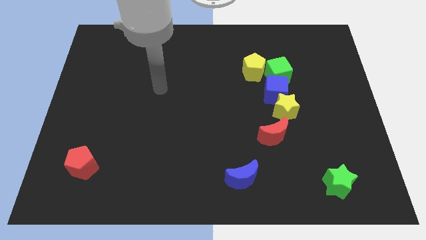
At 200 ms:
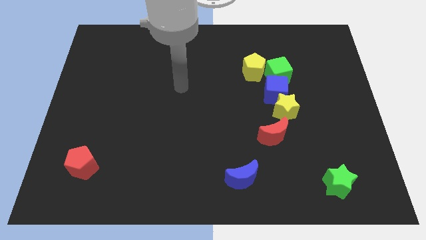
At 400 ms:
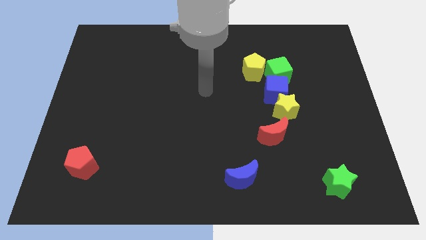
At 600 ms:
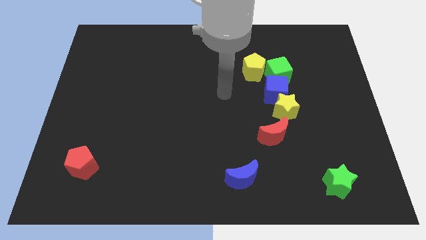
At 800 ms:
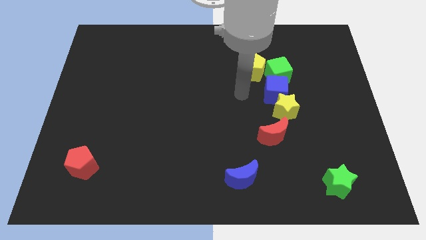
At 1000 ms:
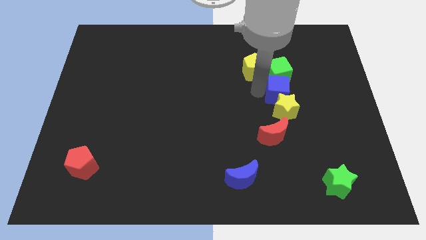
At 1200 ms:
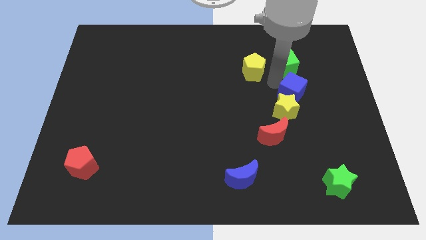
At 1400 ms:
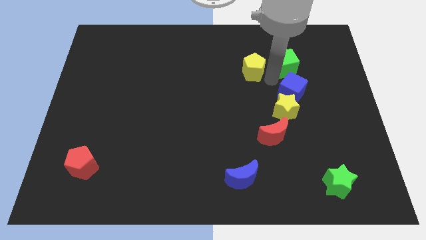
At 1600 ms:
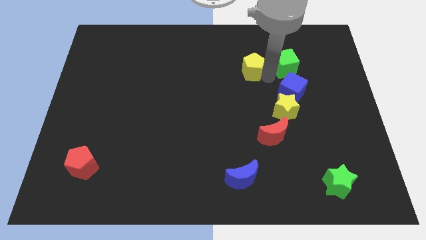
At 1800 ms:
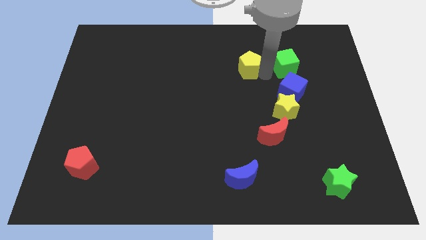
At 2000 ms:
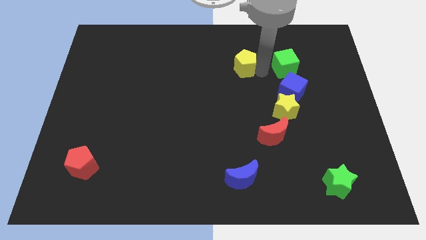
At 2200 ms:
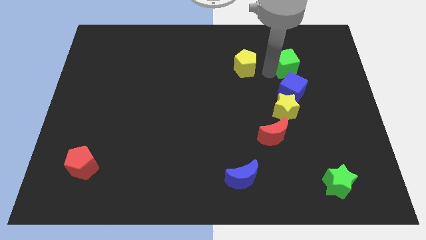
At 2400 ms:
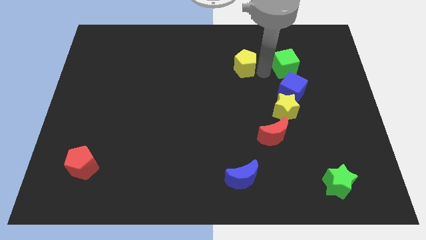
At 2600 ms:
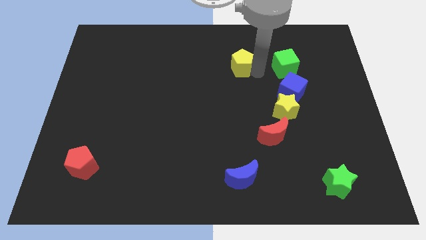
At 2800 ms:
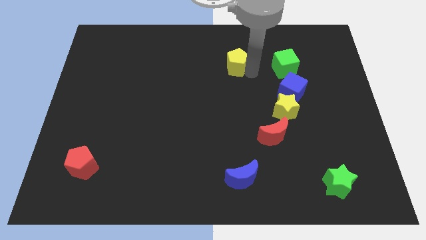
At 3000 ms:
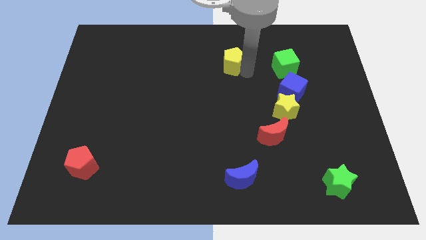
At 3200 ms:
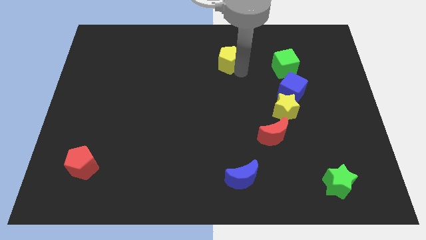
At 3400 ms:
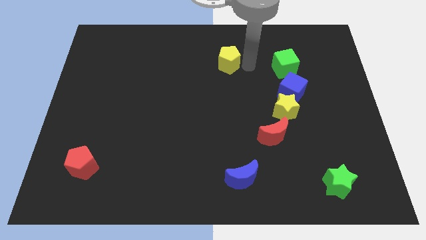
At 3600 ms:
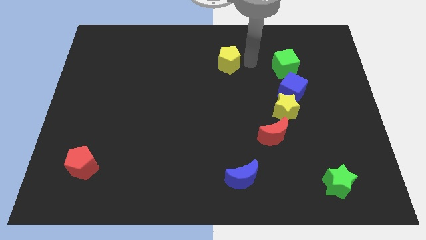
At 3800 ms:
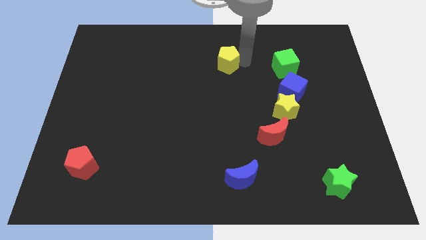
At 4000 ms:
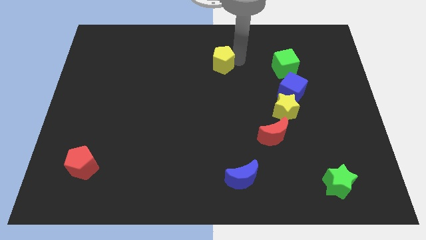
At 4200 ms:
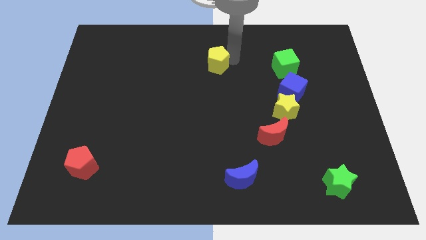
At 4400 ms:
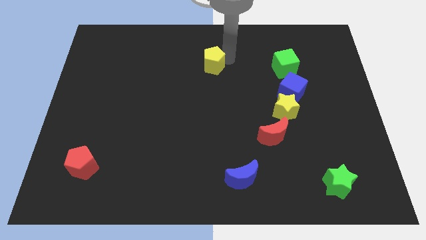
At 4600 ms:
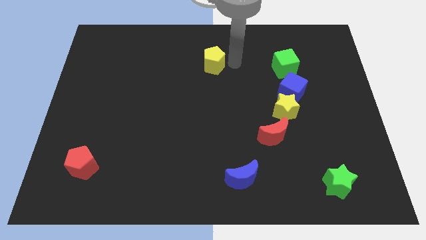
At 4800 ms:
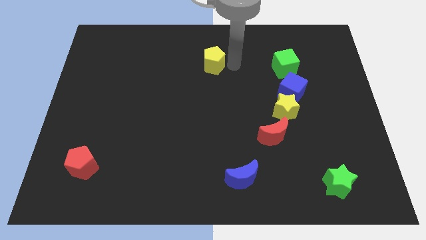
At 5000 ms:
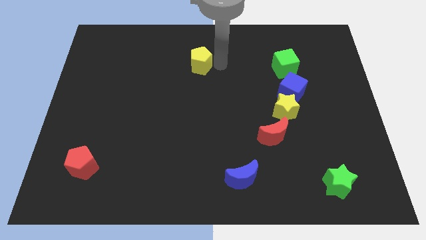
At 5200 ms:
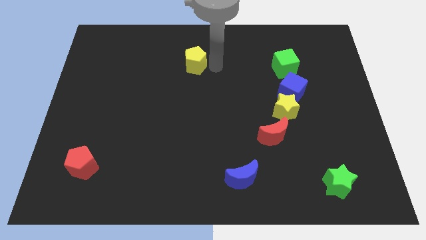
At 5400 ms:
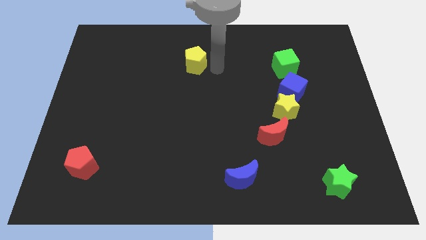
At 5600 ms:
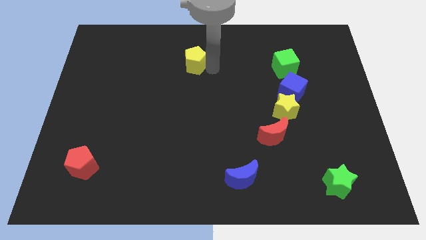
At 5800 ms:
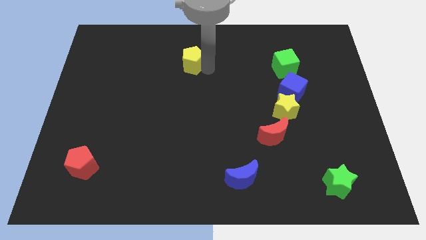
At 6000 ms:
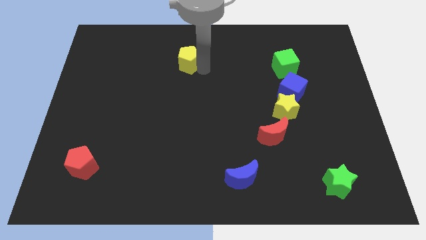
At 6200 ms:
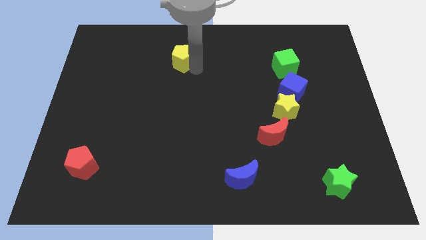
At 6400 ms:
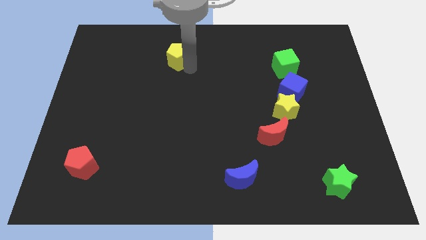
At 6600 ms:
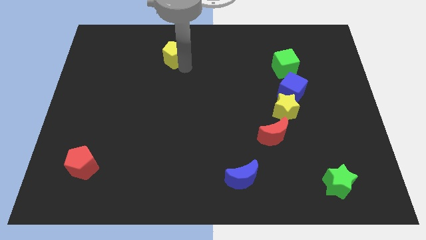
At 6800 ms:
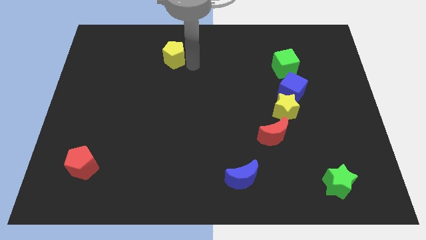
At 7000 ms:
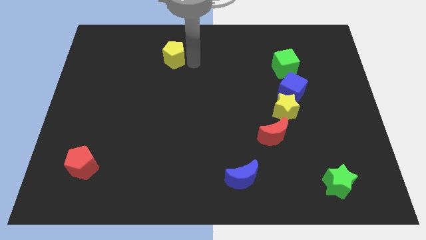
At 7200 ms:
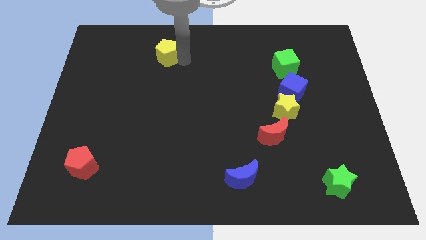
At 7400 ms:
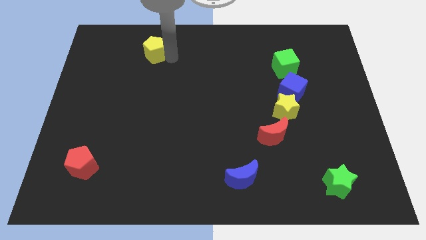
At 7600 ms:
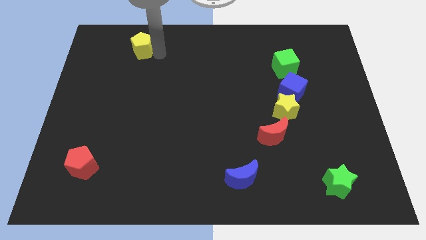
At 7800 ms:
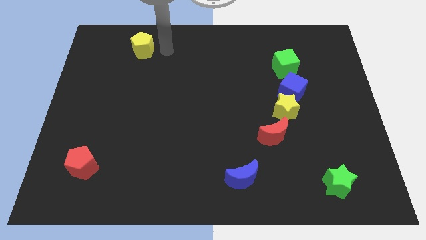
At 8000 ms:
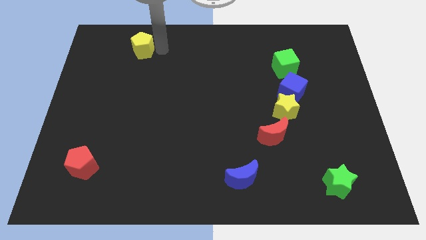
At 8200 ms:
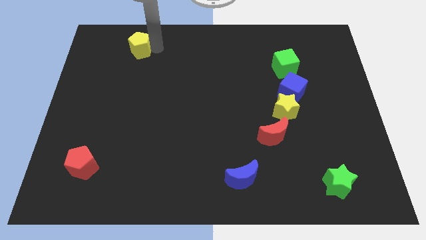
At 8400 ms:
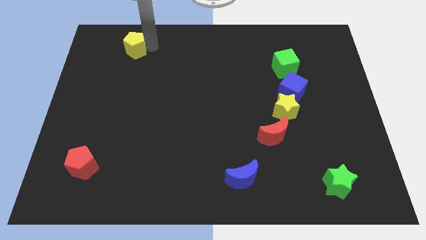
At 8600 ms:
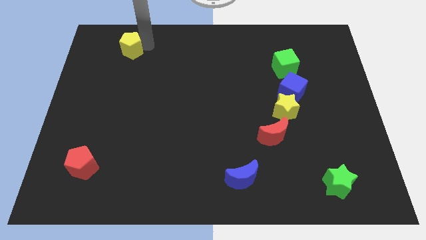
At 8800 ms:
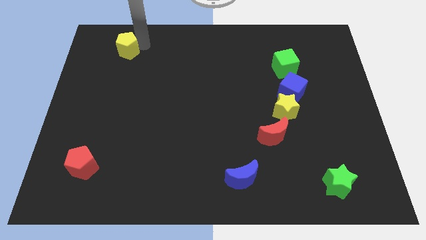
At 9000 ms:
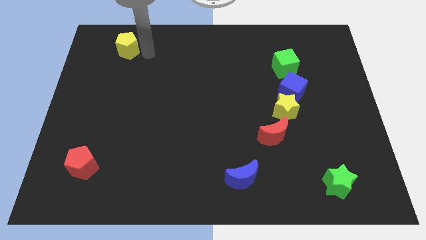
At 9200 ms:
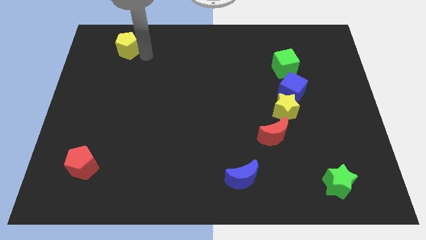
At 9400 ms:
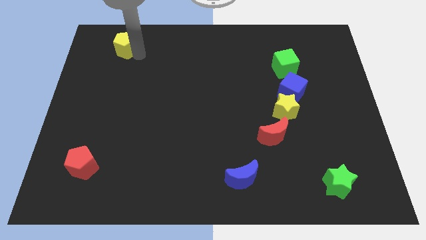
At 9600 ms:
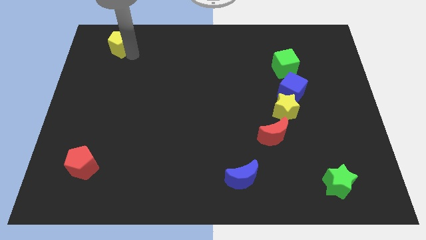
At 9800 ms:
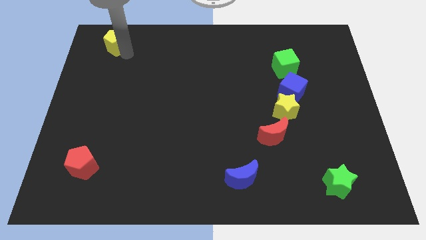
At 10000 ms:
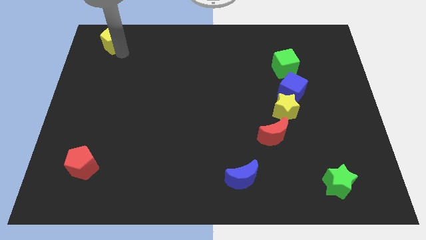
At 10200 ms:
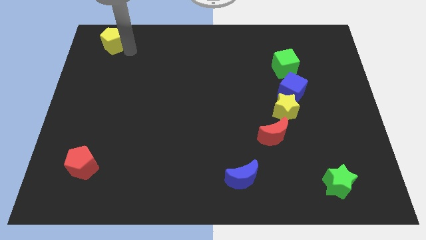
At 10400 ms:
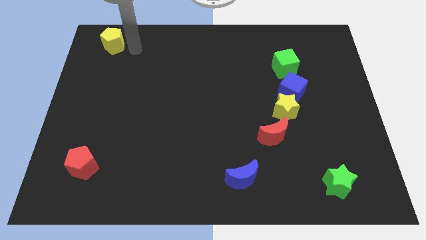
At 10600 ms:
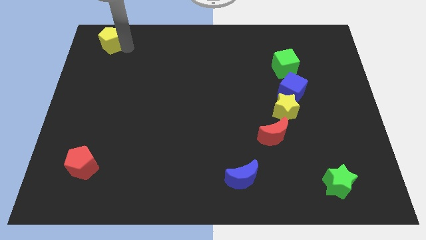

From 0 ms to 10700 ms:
move the yellow pentagon to the upper left corner
